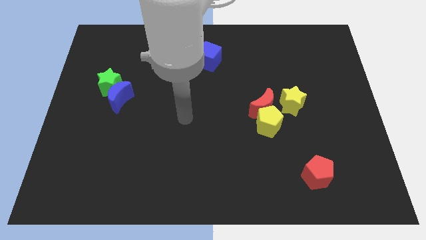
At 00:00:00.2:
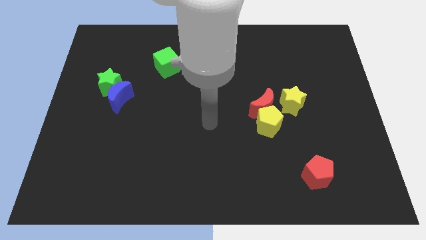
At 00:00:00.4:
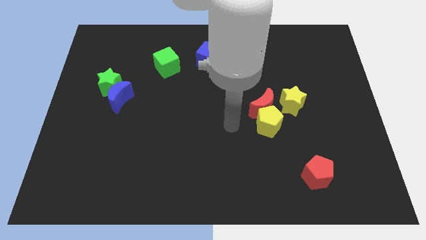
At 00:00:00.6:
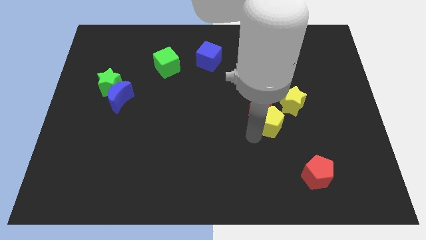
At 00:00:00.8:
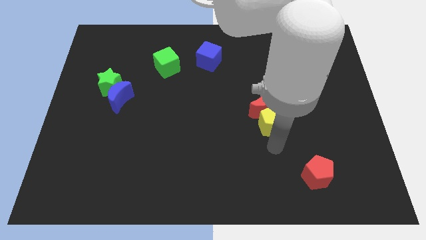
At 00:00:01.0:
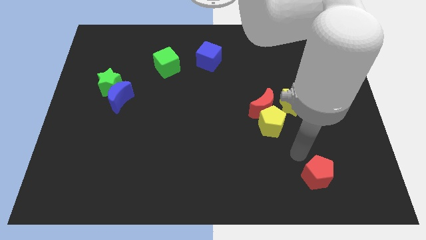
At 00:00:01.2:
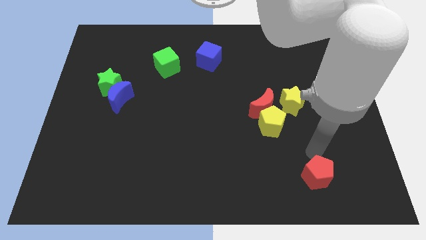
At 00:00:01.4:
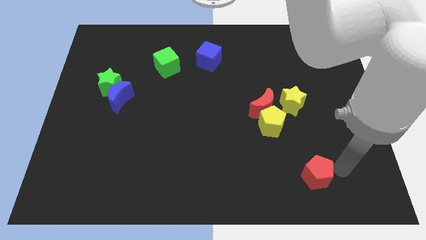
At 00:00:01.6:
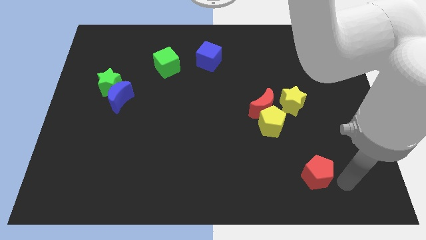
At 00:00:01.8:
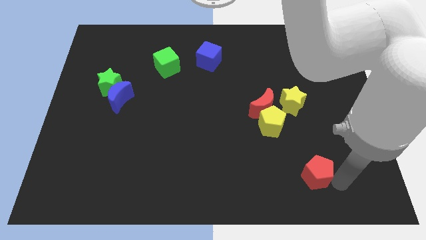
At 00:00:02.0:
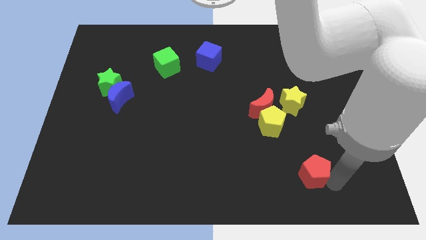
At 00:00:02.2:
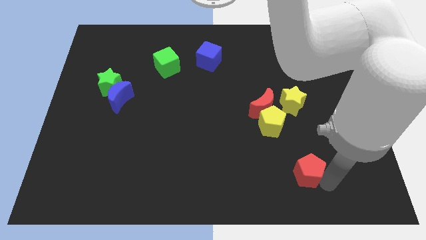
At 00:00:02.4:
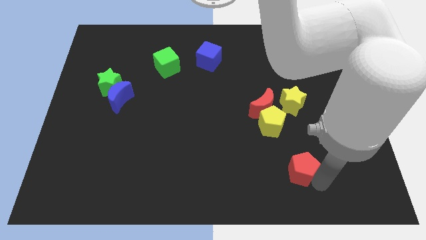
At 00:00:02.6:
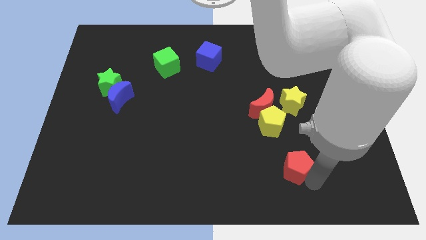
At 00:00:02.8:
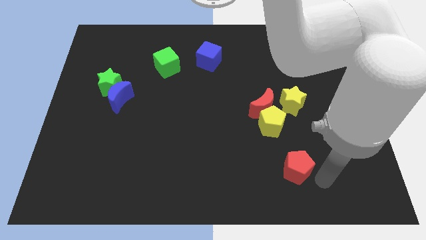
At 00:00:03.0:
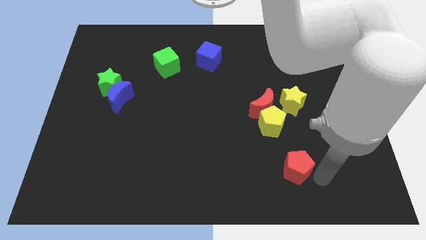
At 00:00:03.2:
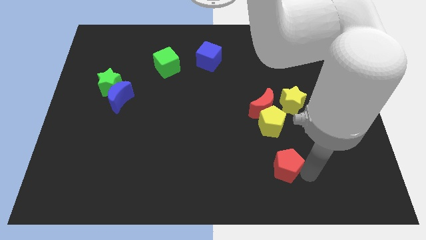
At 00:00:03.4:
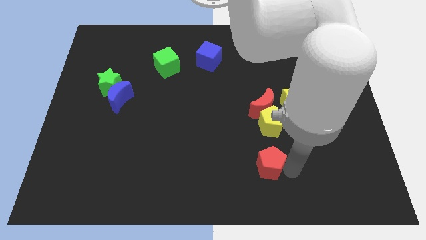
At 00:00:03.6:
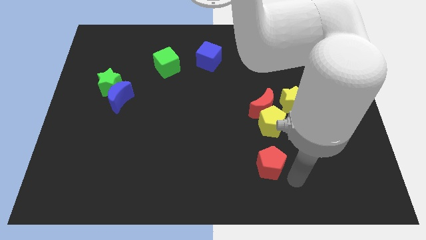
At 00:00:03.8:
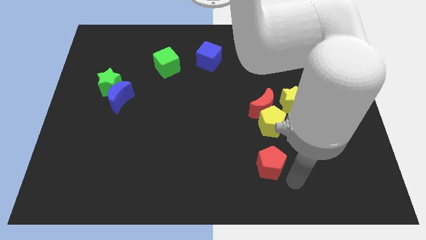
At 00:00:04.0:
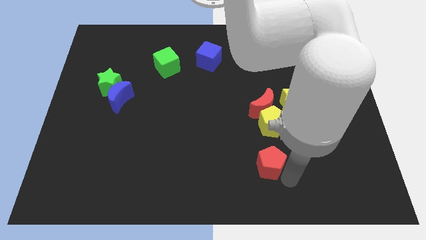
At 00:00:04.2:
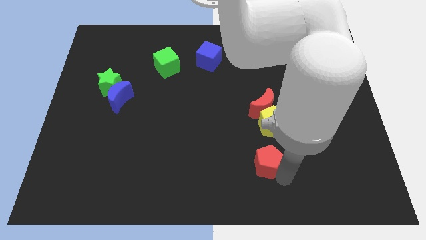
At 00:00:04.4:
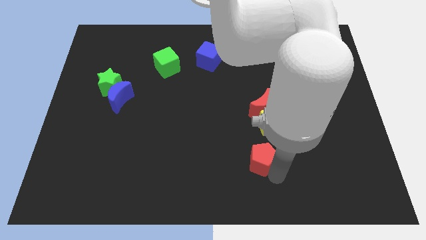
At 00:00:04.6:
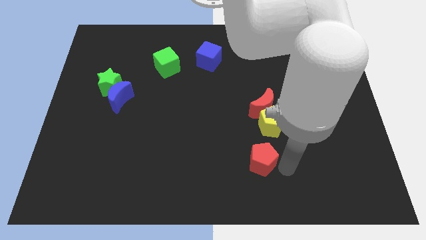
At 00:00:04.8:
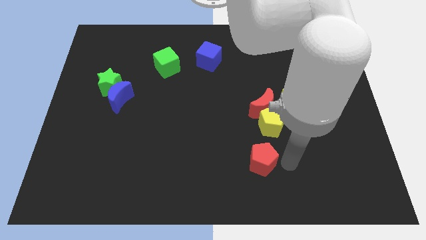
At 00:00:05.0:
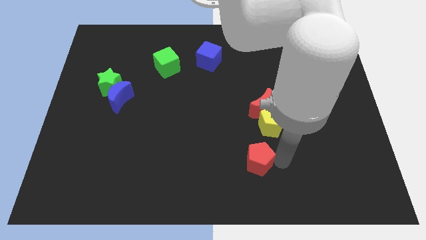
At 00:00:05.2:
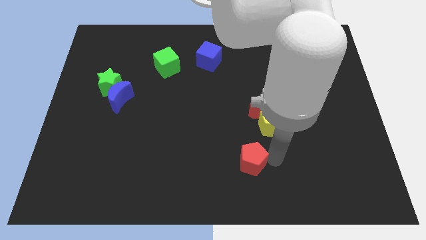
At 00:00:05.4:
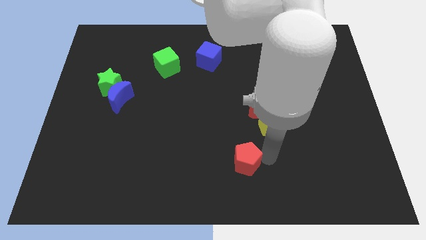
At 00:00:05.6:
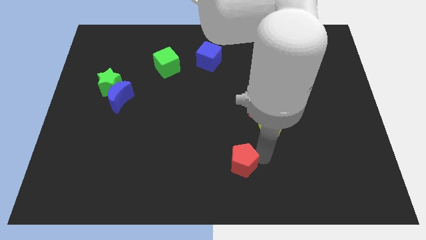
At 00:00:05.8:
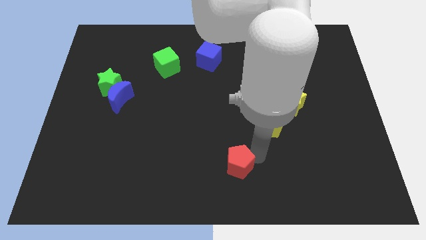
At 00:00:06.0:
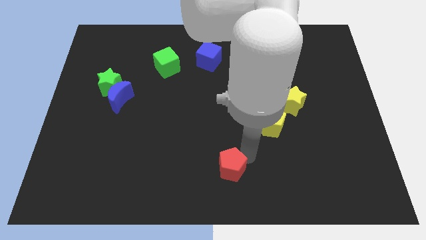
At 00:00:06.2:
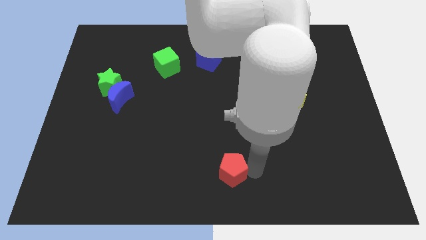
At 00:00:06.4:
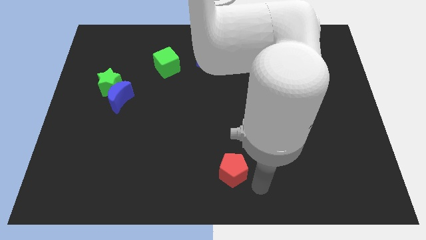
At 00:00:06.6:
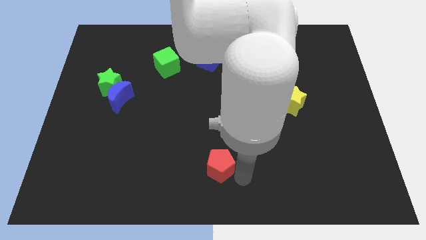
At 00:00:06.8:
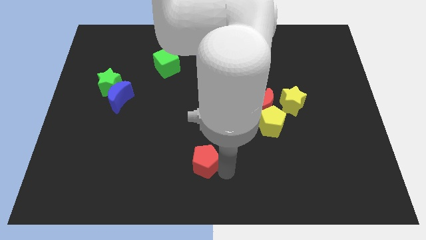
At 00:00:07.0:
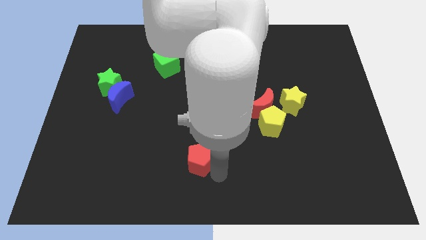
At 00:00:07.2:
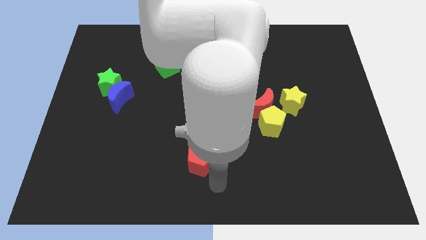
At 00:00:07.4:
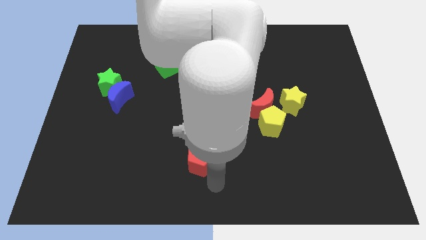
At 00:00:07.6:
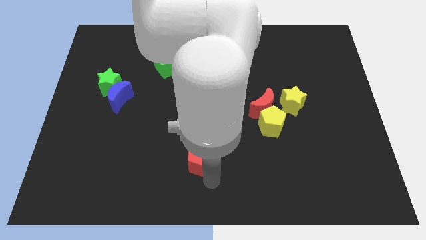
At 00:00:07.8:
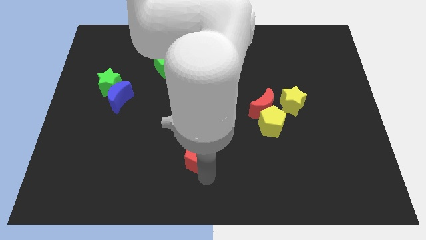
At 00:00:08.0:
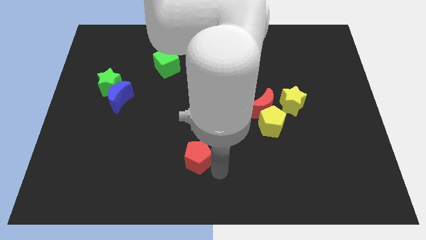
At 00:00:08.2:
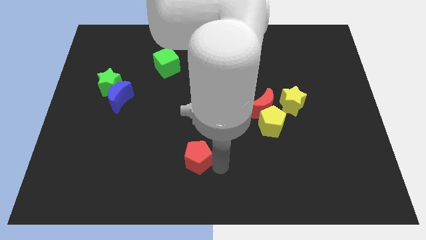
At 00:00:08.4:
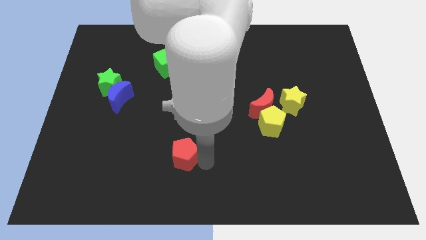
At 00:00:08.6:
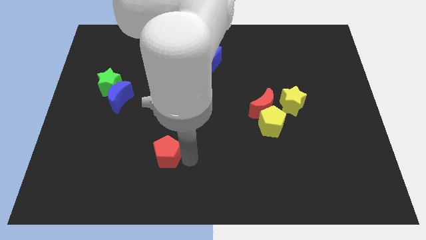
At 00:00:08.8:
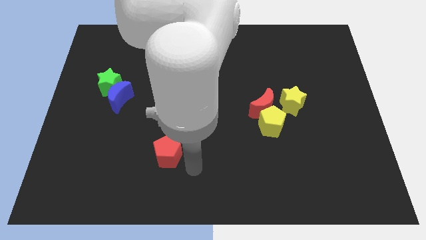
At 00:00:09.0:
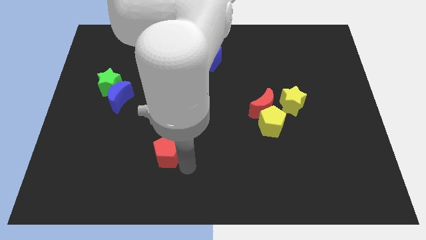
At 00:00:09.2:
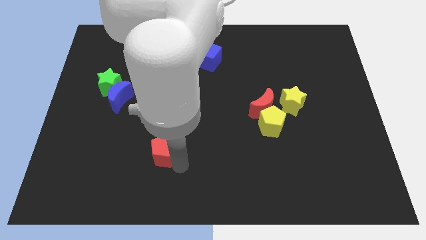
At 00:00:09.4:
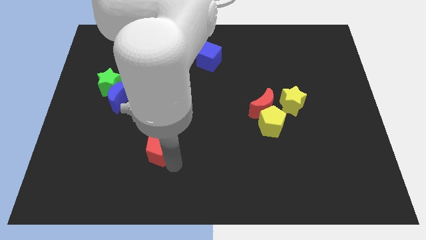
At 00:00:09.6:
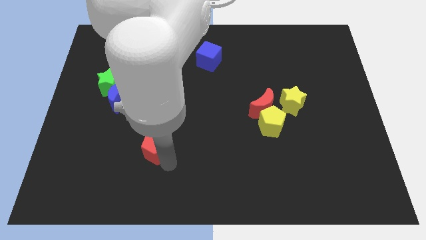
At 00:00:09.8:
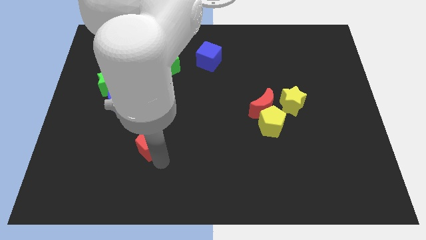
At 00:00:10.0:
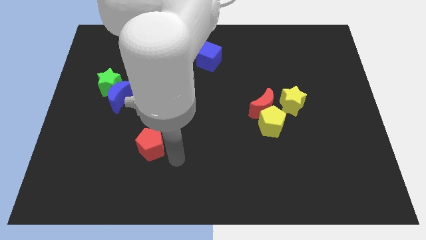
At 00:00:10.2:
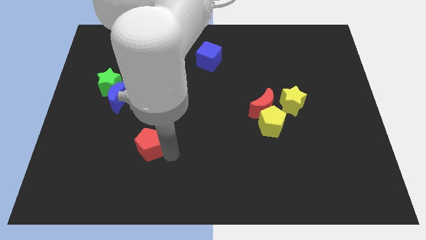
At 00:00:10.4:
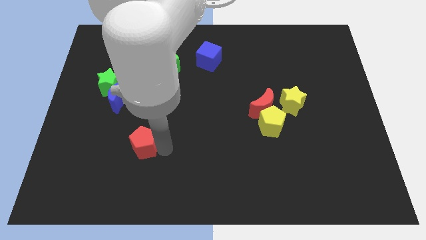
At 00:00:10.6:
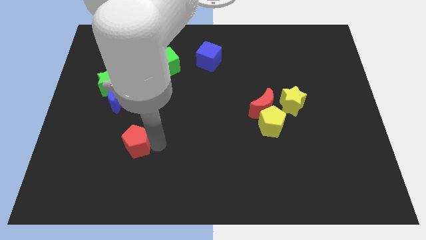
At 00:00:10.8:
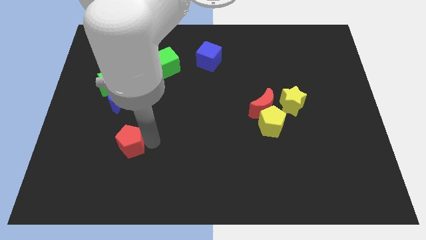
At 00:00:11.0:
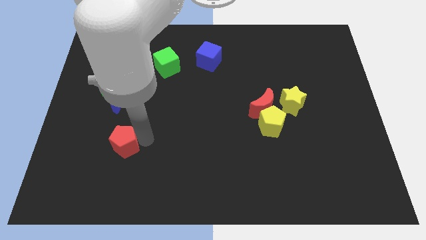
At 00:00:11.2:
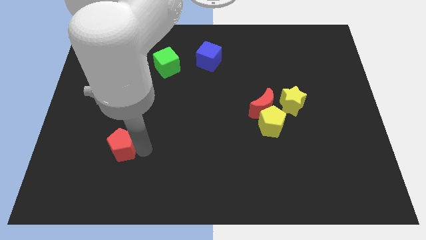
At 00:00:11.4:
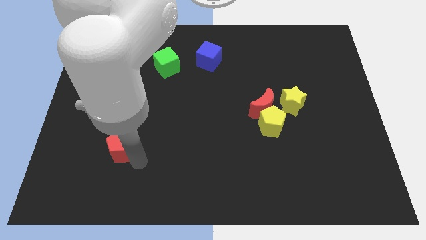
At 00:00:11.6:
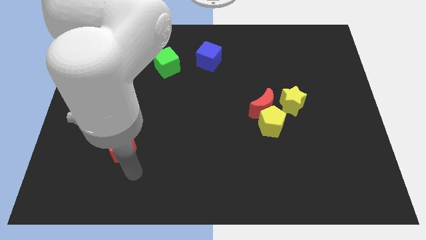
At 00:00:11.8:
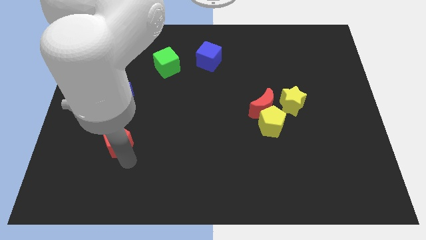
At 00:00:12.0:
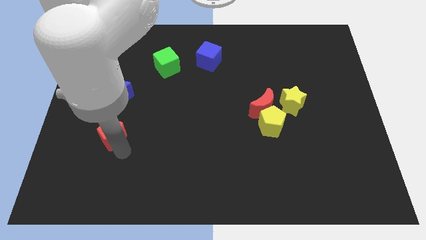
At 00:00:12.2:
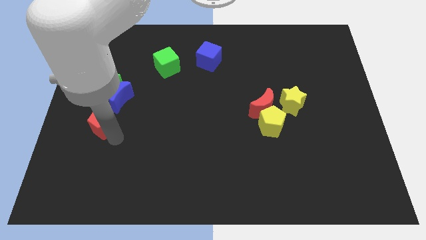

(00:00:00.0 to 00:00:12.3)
slide the red pentagon to the bottom left of the blue moon

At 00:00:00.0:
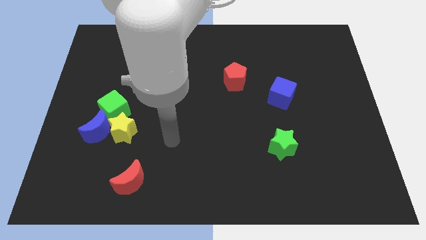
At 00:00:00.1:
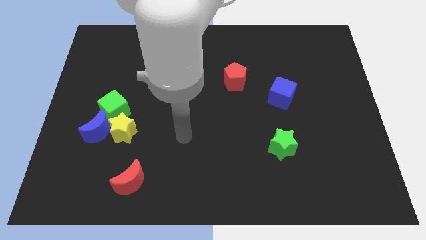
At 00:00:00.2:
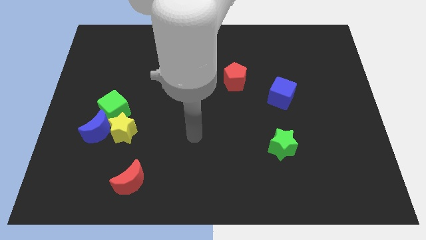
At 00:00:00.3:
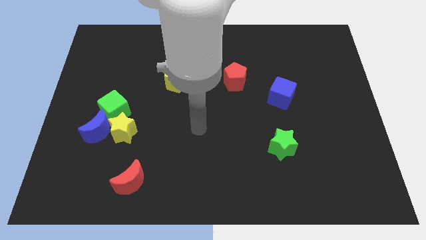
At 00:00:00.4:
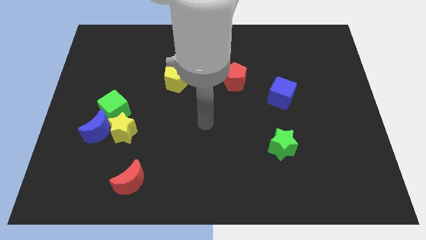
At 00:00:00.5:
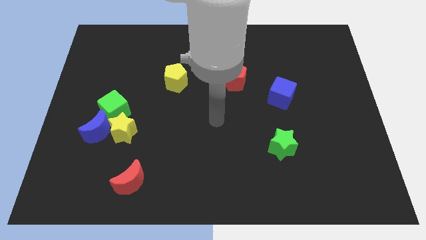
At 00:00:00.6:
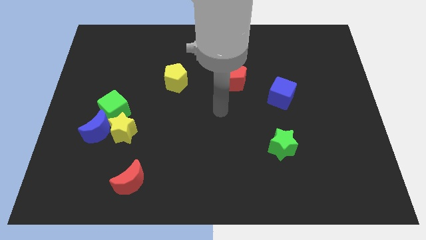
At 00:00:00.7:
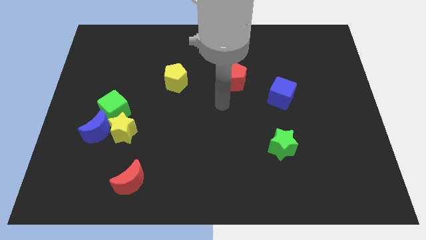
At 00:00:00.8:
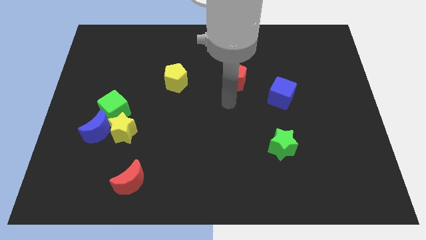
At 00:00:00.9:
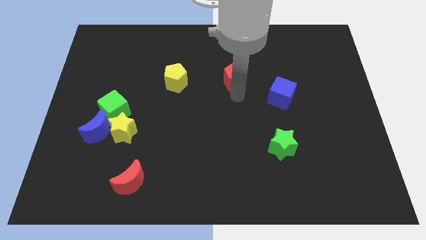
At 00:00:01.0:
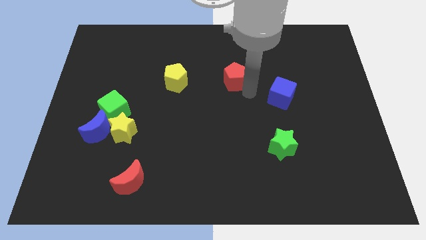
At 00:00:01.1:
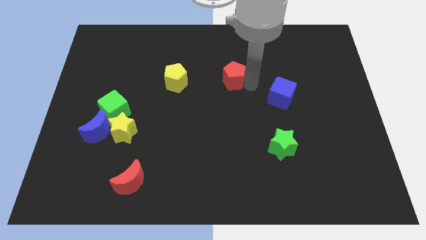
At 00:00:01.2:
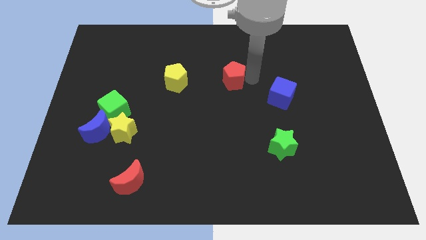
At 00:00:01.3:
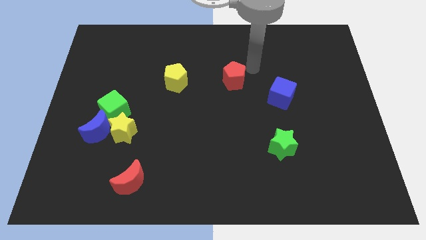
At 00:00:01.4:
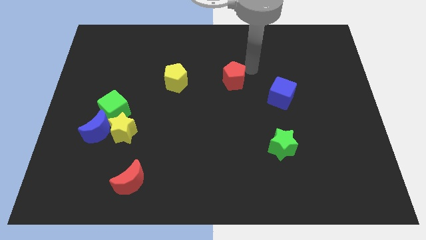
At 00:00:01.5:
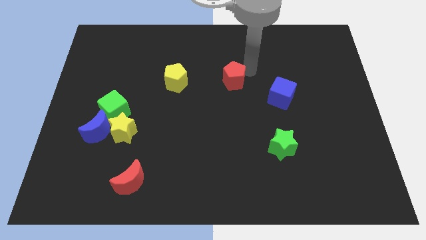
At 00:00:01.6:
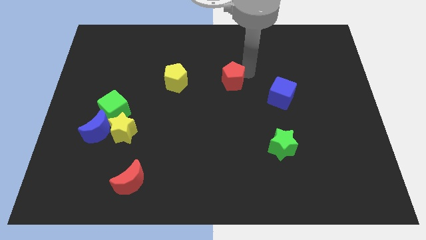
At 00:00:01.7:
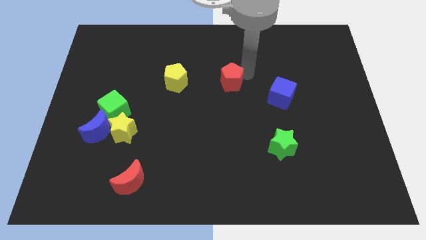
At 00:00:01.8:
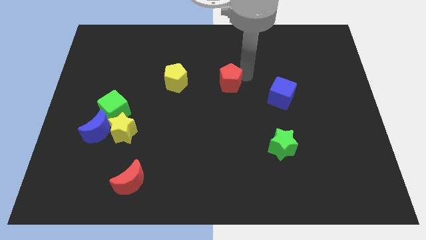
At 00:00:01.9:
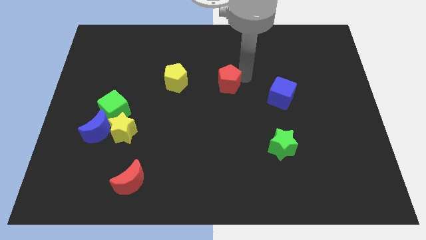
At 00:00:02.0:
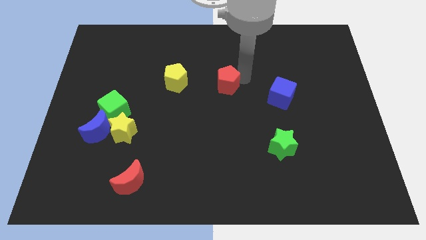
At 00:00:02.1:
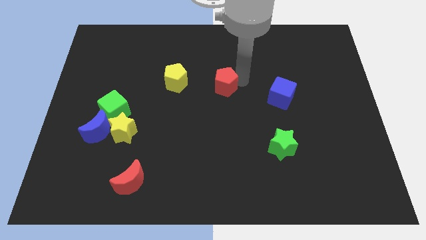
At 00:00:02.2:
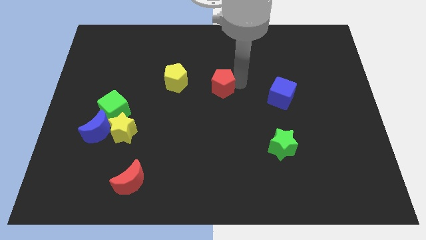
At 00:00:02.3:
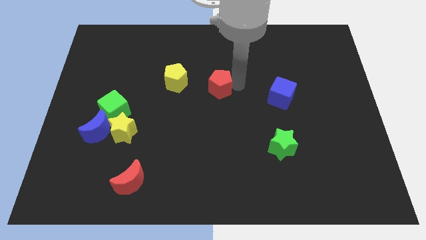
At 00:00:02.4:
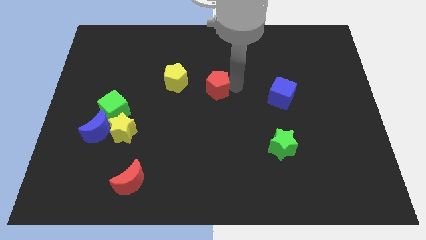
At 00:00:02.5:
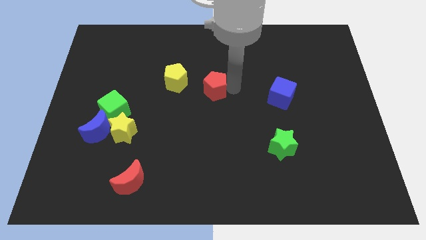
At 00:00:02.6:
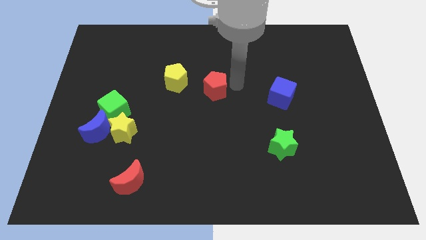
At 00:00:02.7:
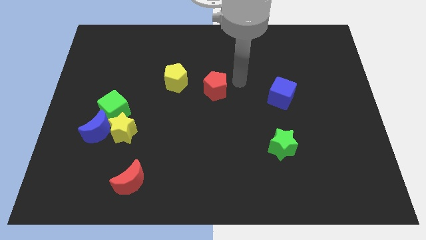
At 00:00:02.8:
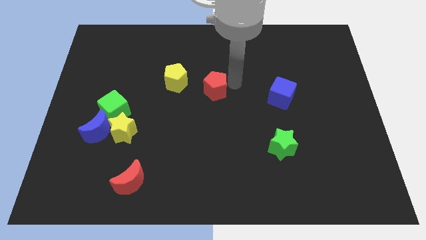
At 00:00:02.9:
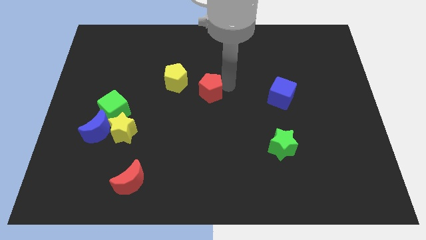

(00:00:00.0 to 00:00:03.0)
move the red pentagon to the bottom right side of the yellow pentagon
